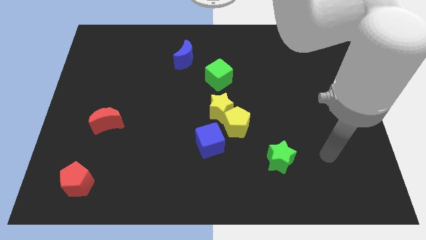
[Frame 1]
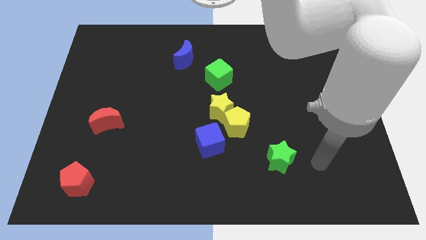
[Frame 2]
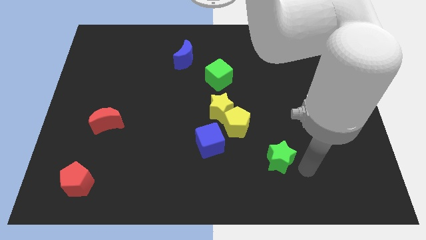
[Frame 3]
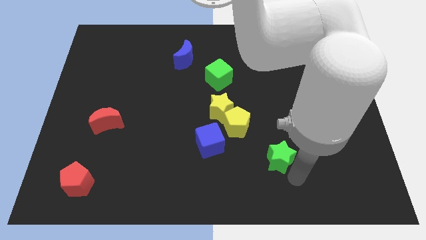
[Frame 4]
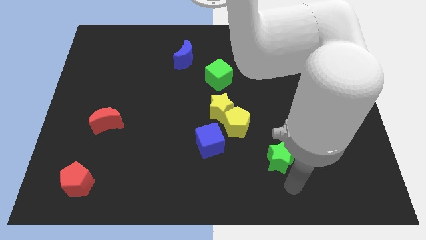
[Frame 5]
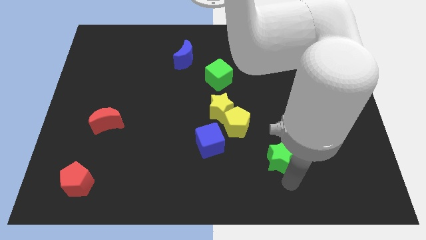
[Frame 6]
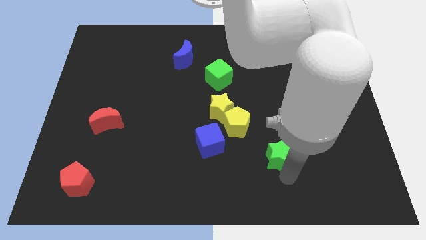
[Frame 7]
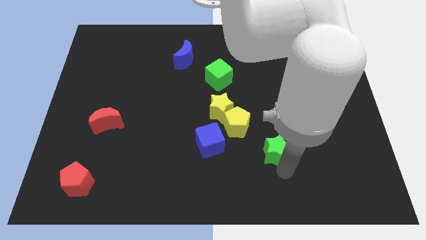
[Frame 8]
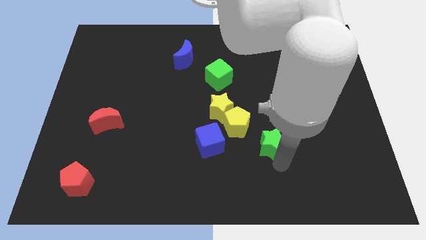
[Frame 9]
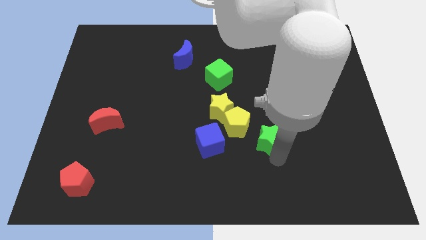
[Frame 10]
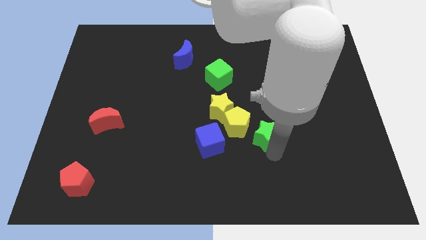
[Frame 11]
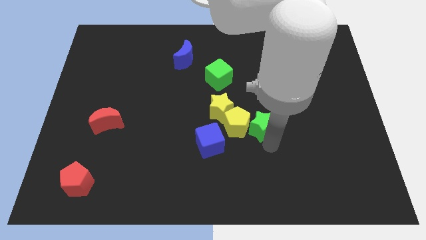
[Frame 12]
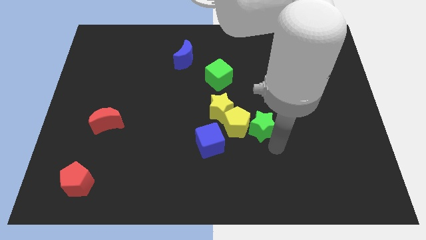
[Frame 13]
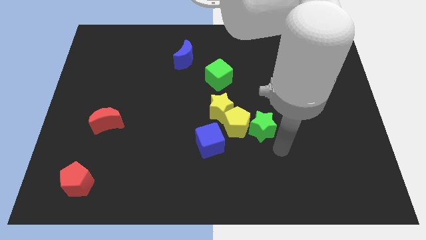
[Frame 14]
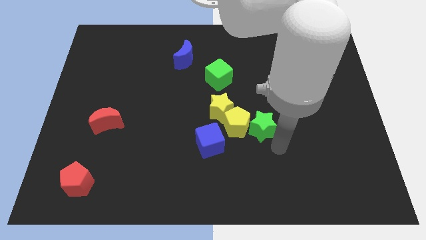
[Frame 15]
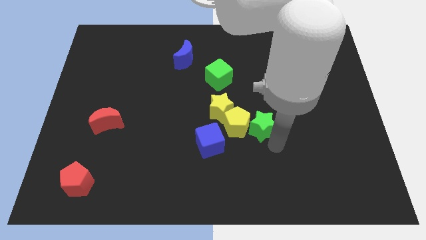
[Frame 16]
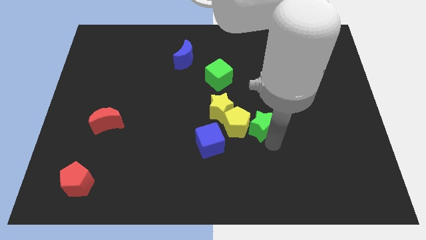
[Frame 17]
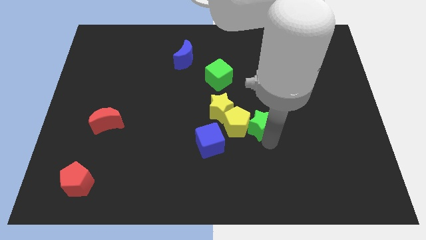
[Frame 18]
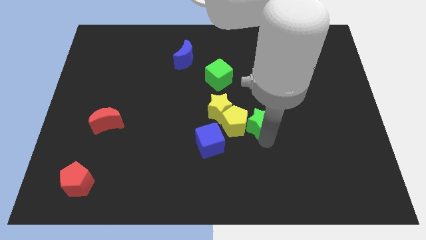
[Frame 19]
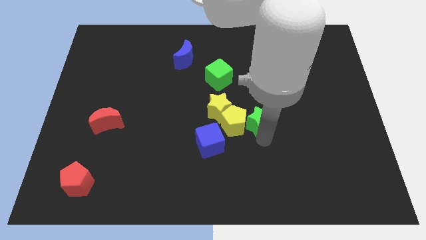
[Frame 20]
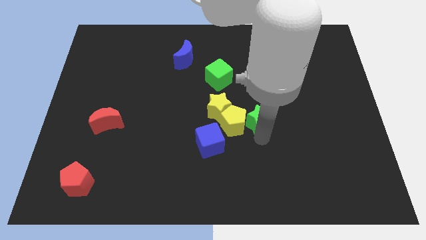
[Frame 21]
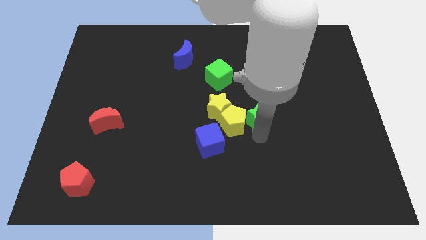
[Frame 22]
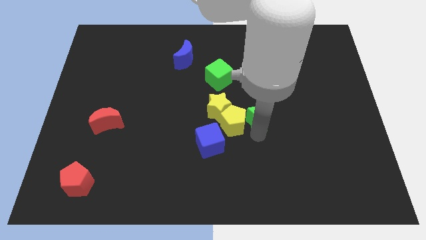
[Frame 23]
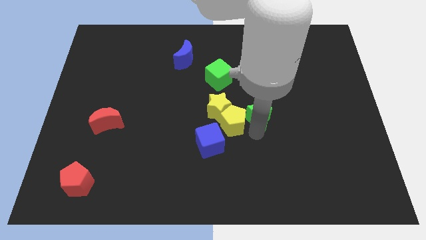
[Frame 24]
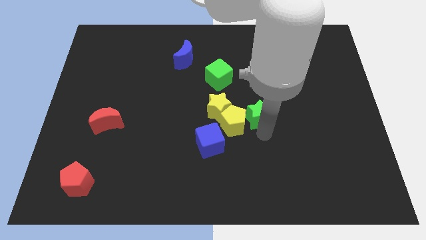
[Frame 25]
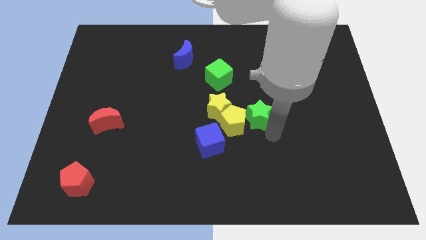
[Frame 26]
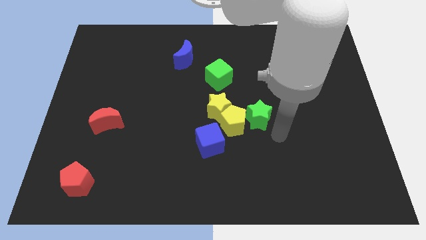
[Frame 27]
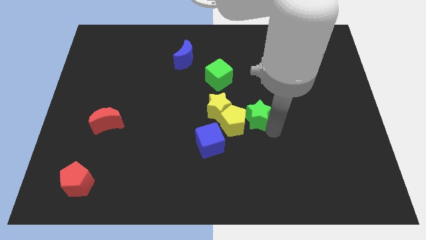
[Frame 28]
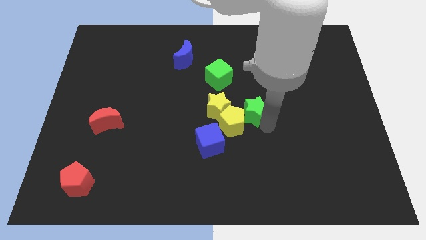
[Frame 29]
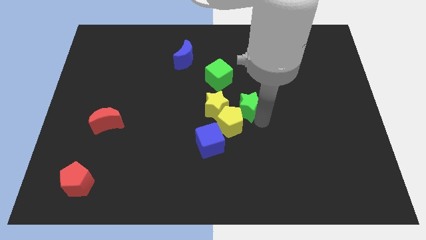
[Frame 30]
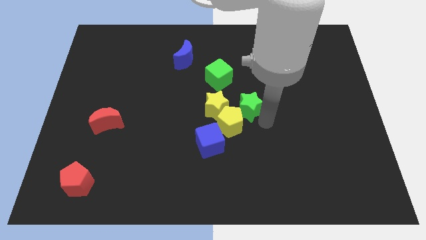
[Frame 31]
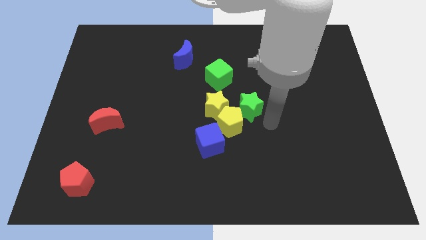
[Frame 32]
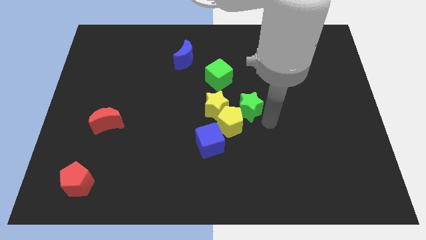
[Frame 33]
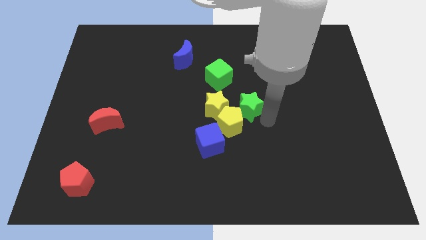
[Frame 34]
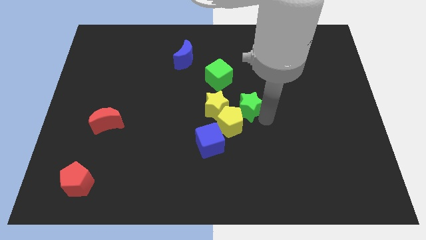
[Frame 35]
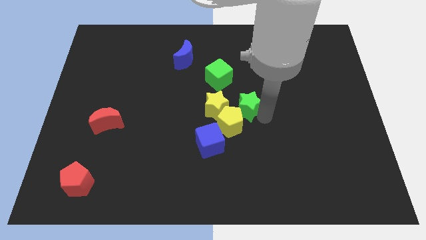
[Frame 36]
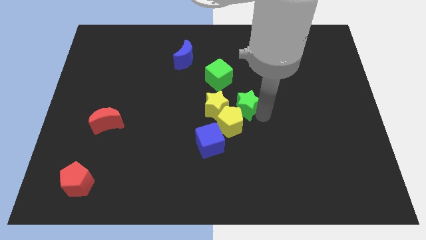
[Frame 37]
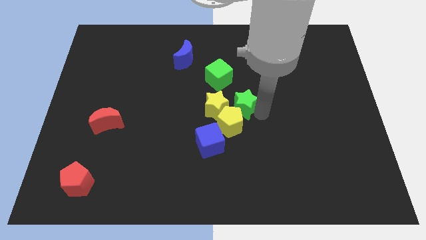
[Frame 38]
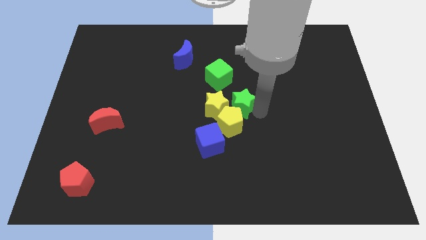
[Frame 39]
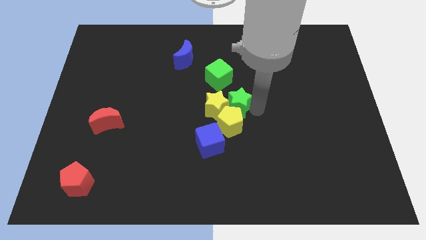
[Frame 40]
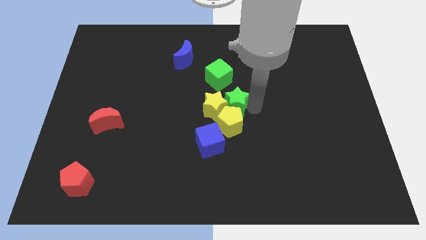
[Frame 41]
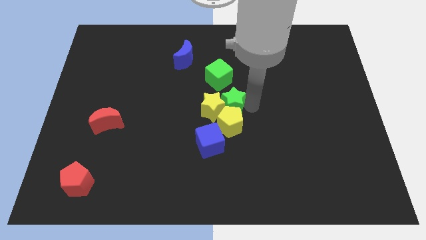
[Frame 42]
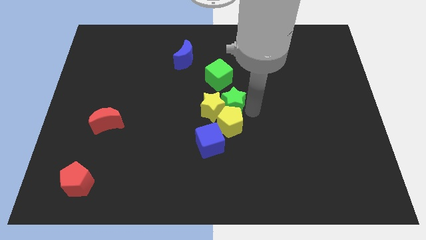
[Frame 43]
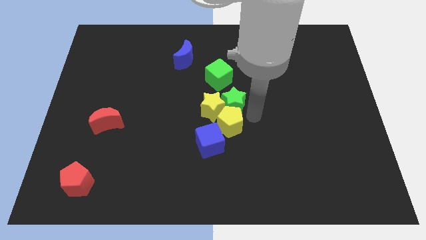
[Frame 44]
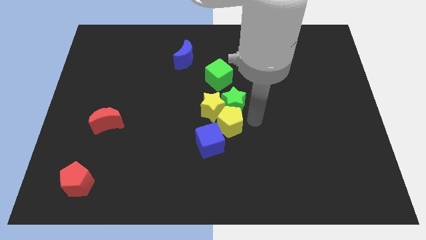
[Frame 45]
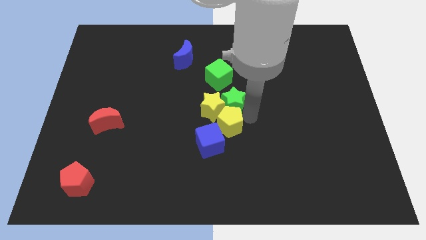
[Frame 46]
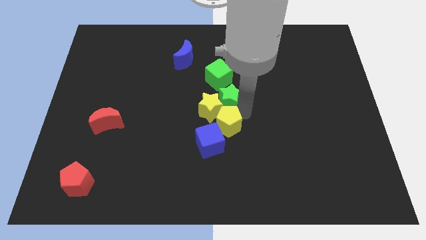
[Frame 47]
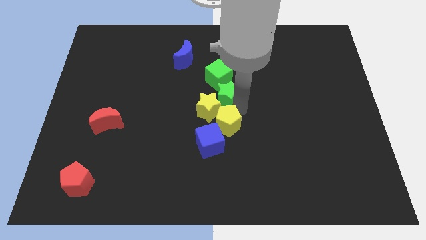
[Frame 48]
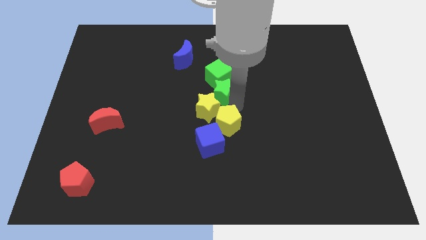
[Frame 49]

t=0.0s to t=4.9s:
move the green star upwards and then to the left

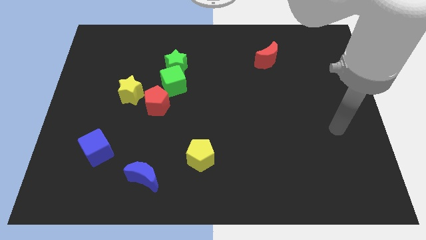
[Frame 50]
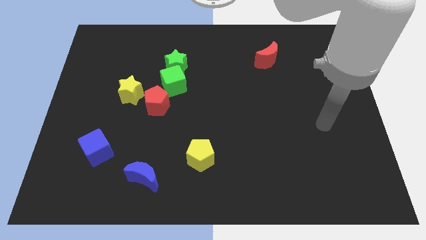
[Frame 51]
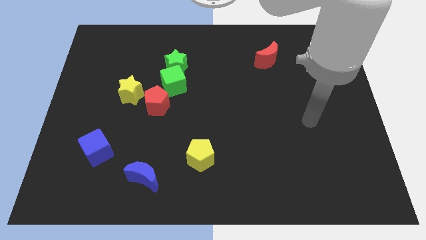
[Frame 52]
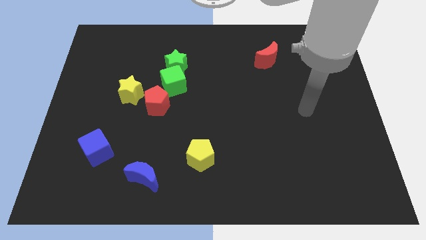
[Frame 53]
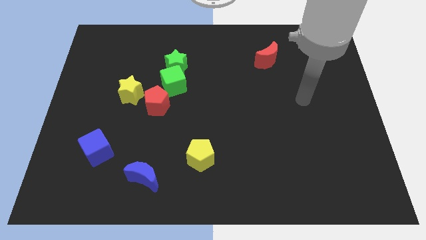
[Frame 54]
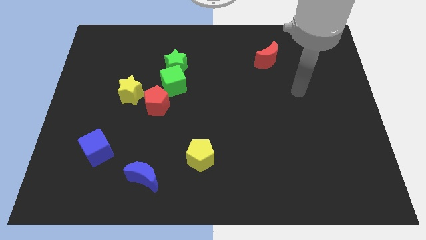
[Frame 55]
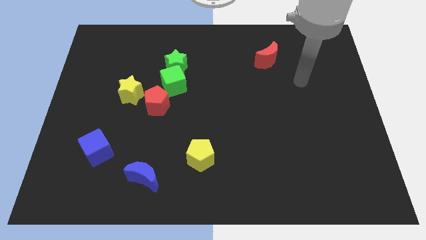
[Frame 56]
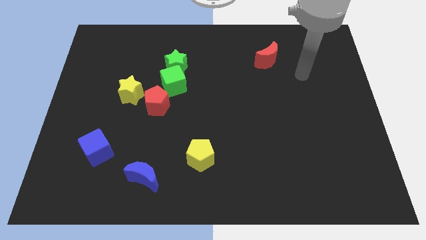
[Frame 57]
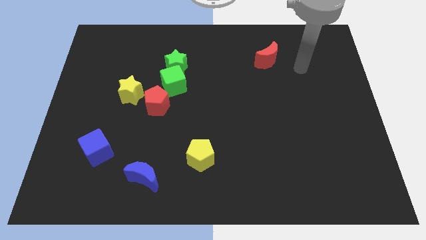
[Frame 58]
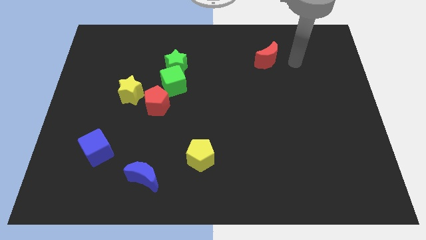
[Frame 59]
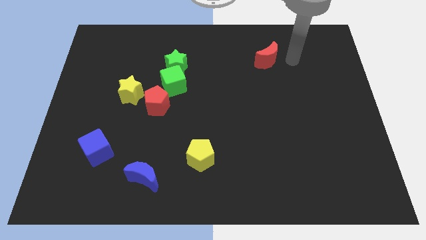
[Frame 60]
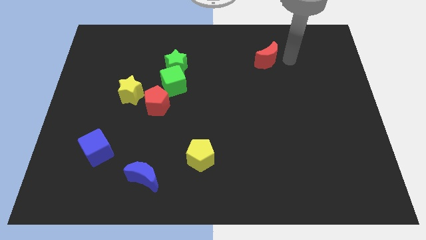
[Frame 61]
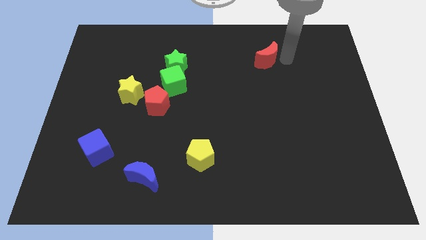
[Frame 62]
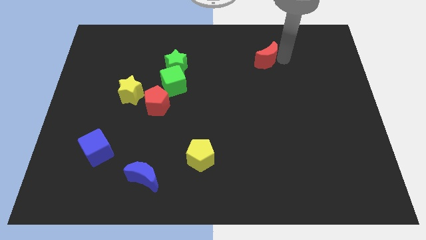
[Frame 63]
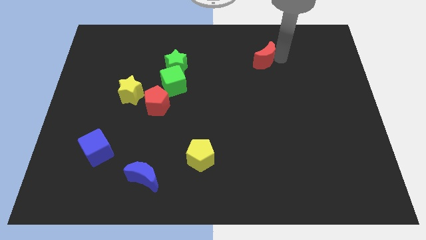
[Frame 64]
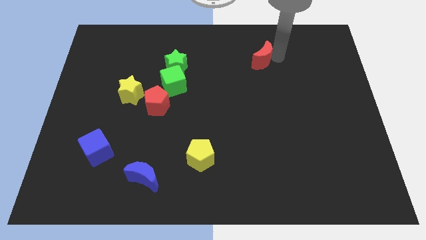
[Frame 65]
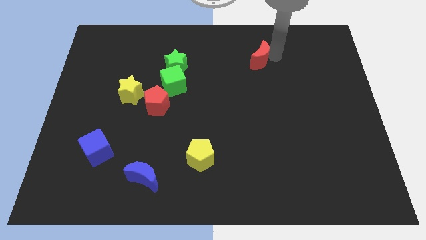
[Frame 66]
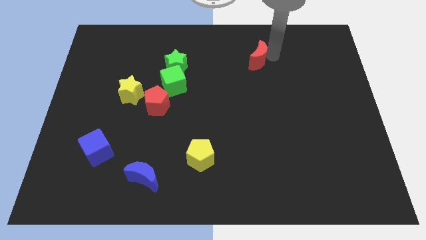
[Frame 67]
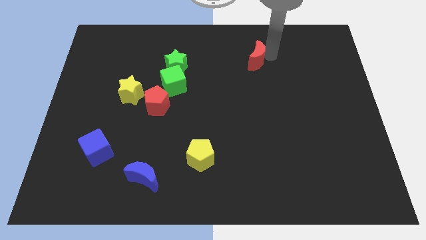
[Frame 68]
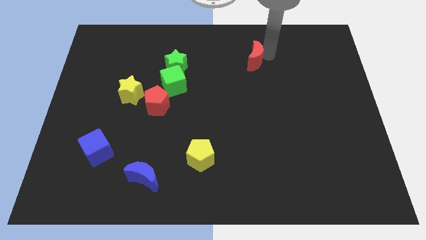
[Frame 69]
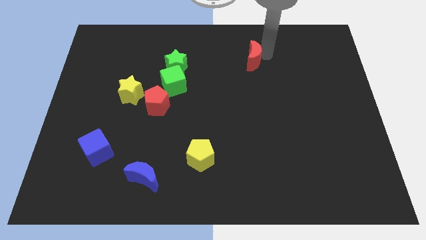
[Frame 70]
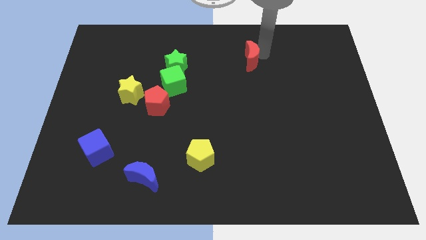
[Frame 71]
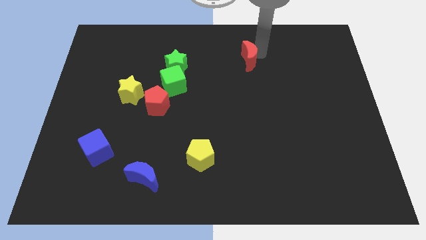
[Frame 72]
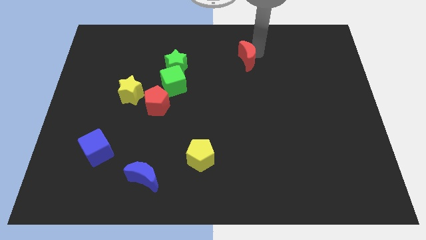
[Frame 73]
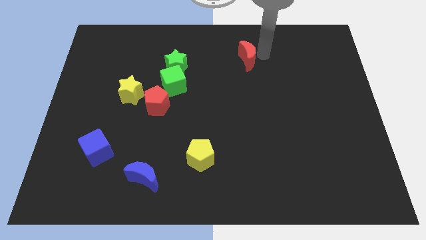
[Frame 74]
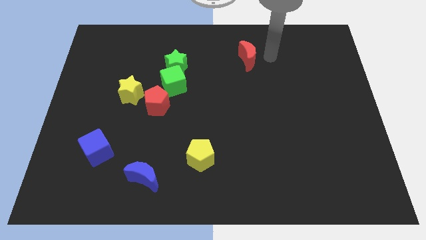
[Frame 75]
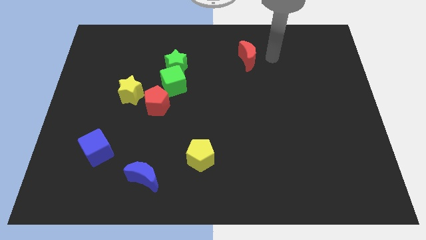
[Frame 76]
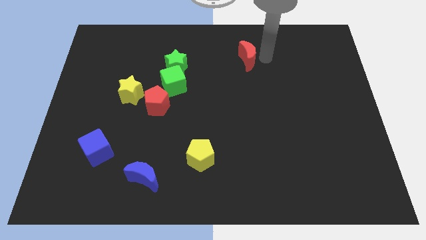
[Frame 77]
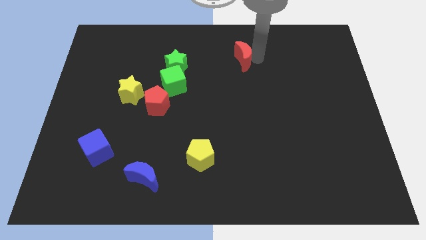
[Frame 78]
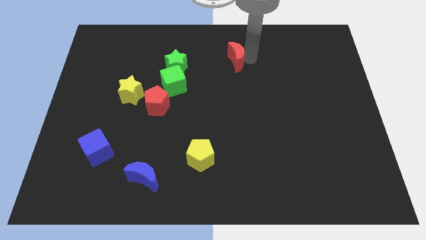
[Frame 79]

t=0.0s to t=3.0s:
slide the red moon slightly left
